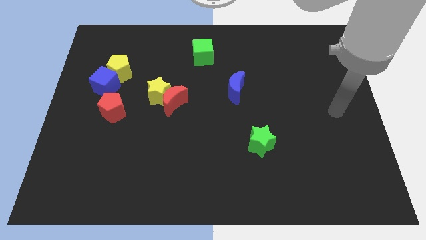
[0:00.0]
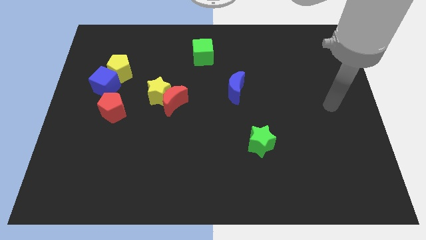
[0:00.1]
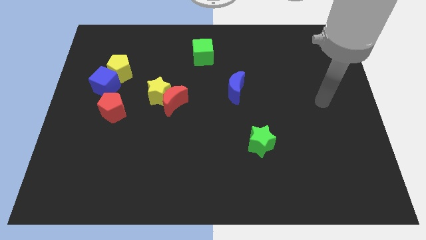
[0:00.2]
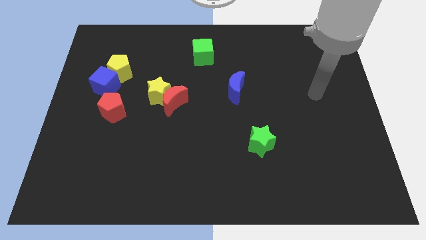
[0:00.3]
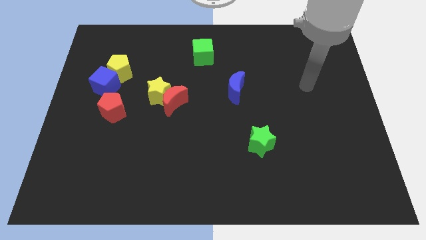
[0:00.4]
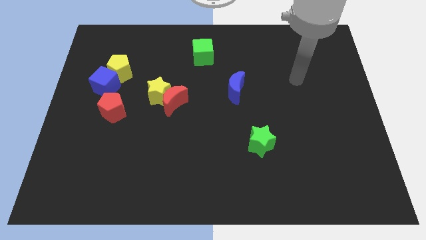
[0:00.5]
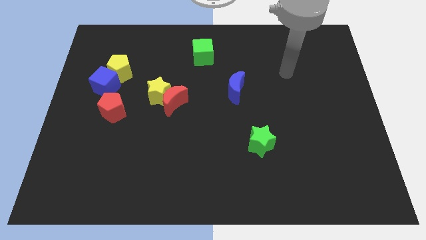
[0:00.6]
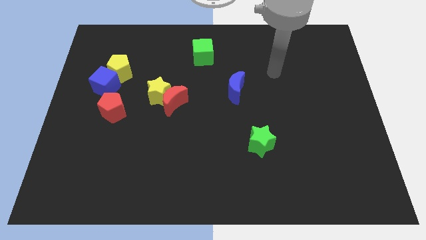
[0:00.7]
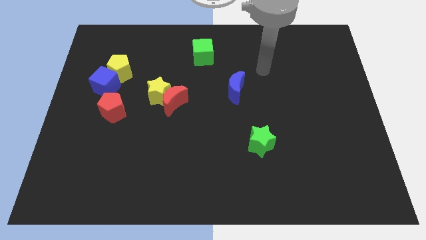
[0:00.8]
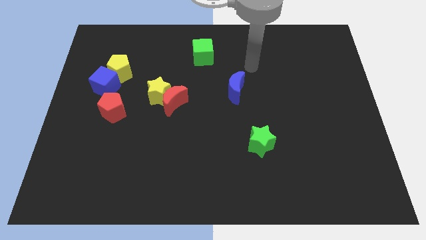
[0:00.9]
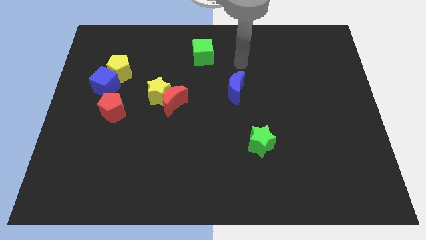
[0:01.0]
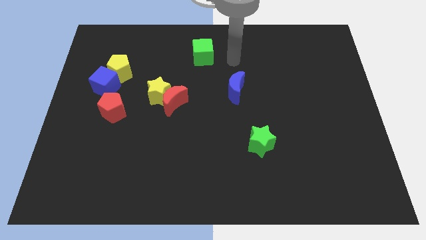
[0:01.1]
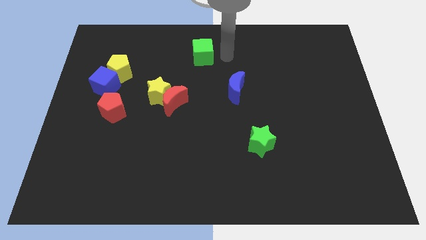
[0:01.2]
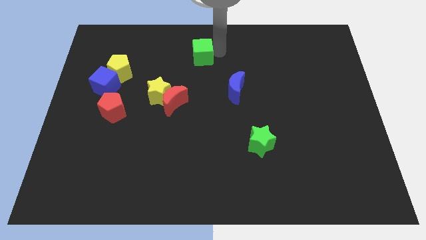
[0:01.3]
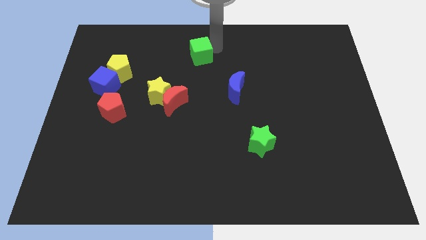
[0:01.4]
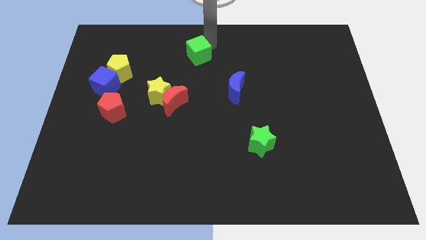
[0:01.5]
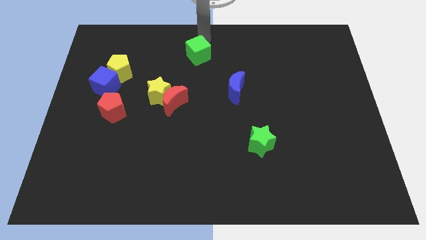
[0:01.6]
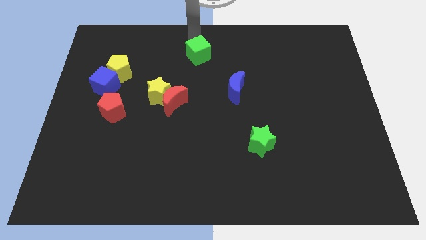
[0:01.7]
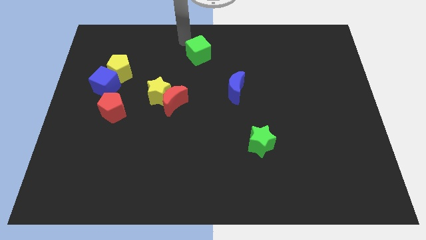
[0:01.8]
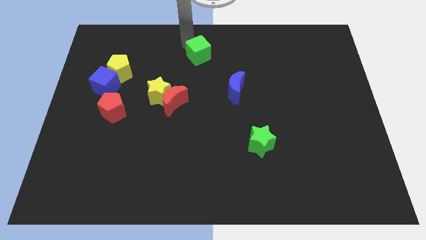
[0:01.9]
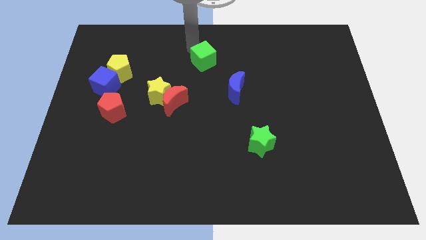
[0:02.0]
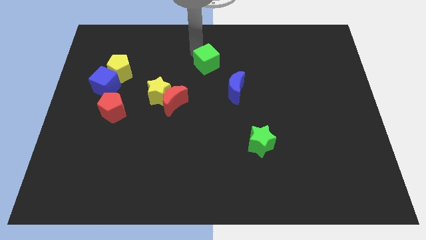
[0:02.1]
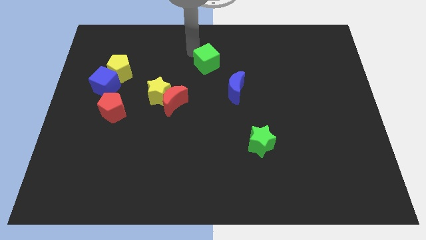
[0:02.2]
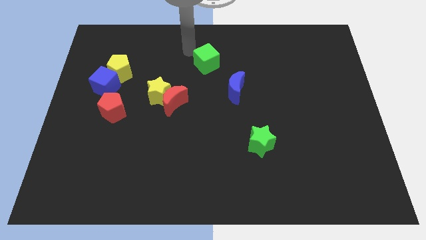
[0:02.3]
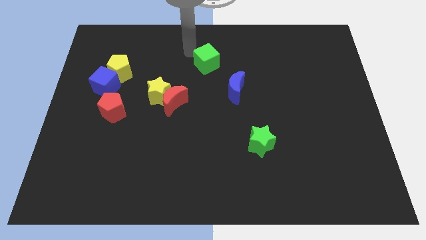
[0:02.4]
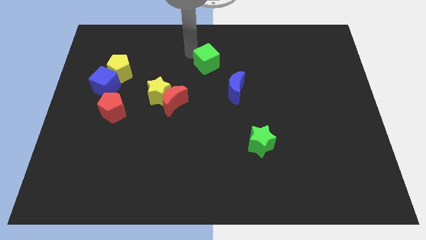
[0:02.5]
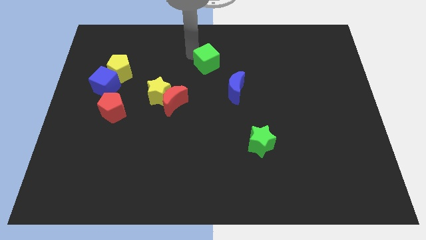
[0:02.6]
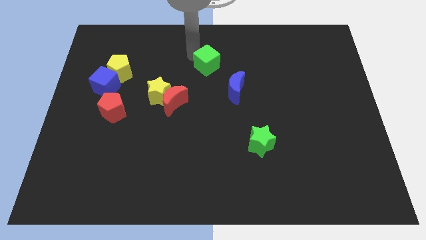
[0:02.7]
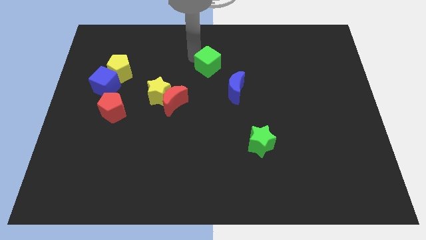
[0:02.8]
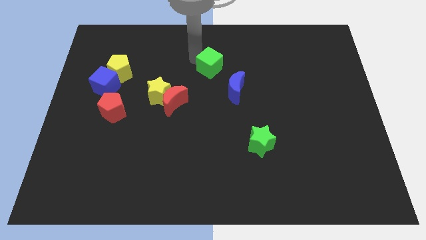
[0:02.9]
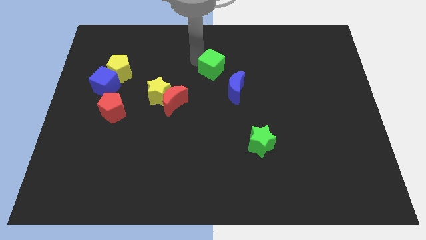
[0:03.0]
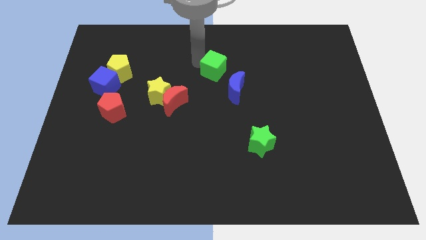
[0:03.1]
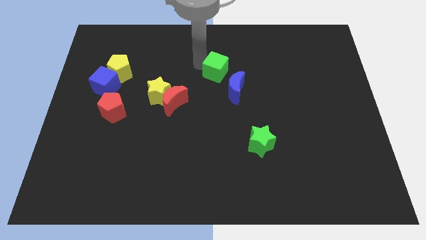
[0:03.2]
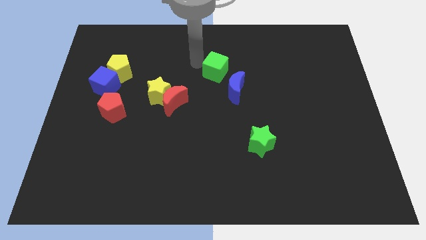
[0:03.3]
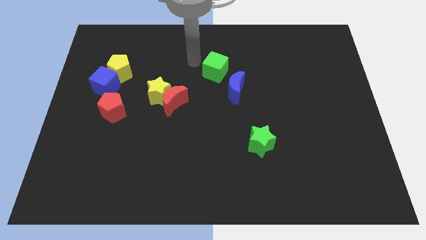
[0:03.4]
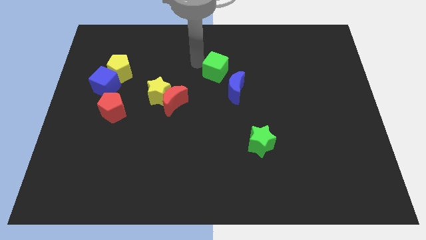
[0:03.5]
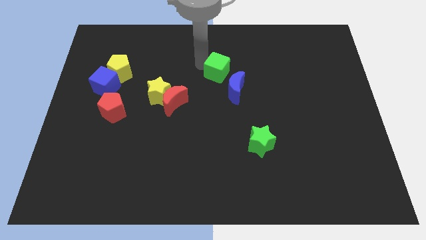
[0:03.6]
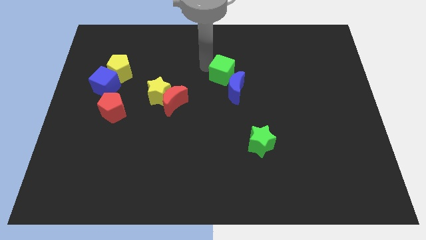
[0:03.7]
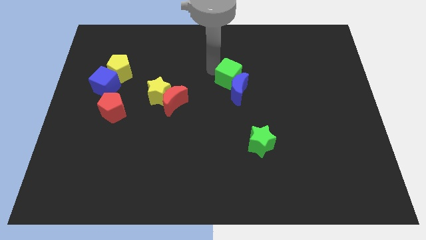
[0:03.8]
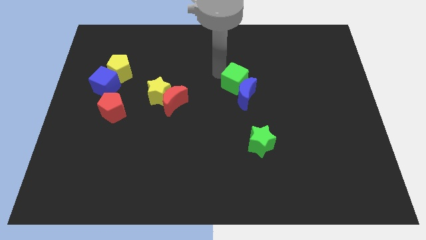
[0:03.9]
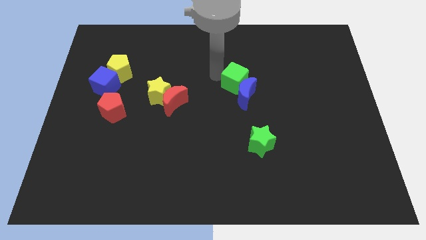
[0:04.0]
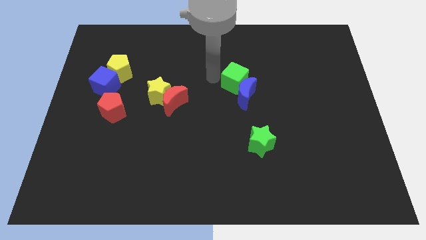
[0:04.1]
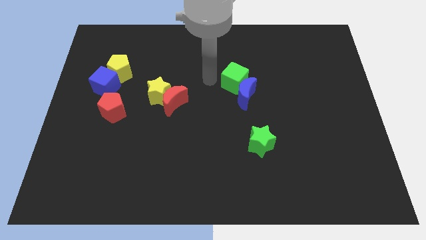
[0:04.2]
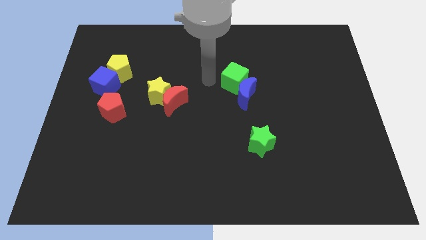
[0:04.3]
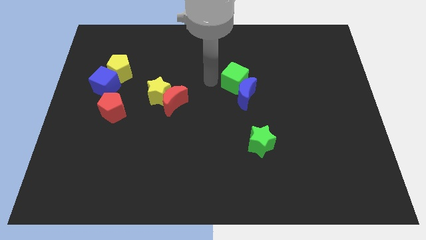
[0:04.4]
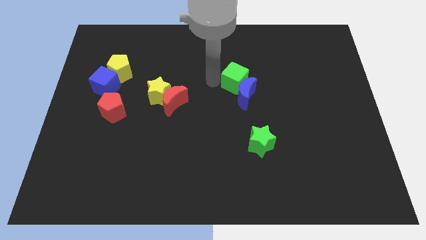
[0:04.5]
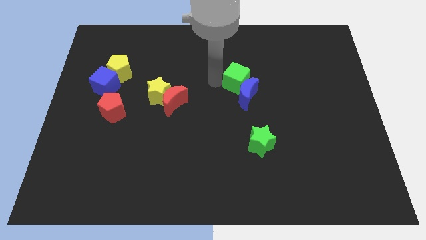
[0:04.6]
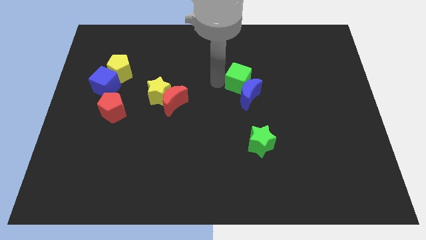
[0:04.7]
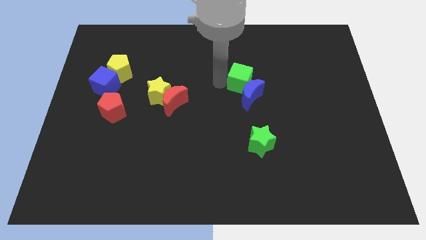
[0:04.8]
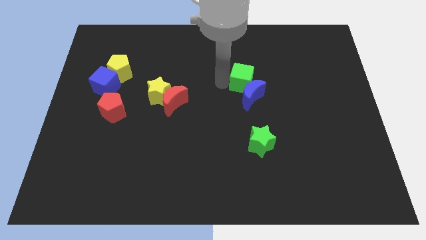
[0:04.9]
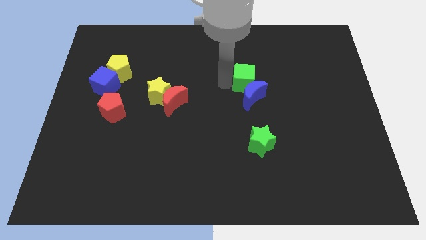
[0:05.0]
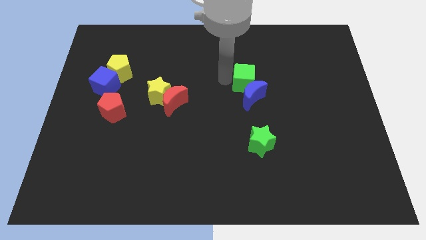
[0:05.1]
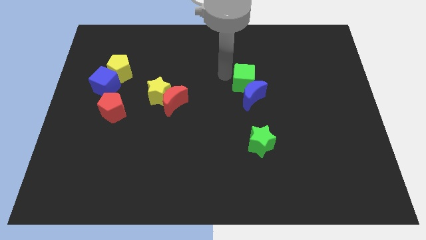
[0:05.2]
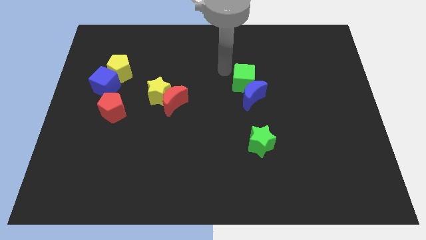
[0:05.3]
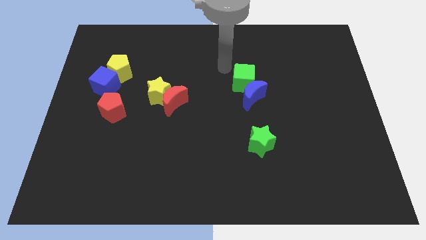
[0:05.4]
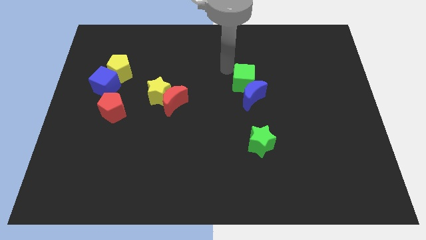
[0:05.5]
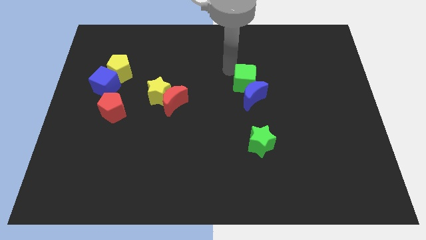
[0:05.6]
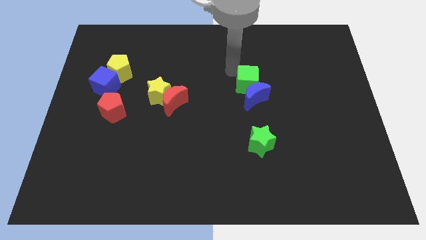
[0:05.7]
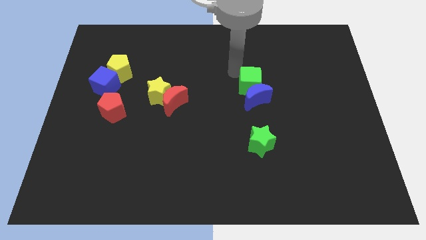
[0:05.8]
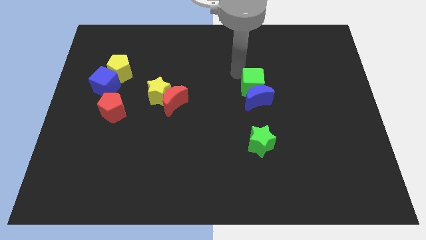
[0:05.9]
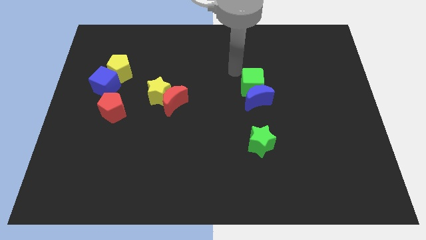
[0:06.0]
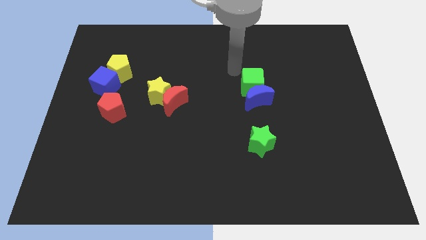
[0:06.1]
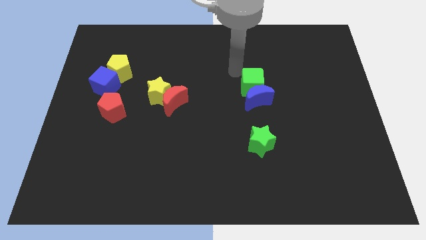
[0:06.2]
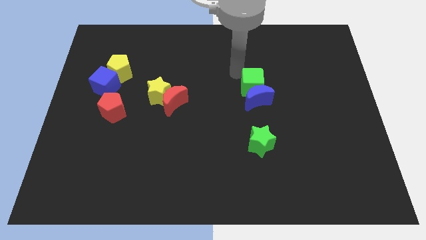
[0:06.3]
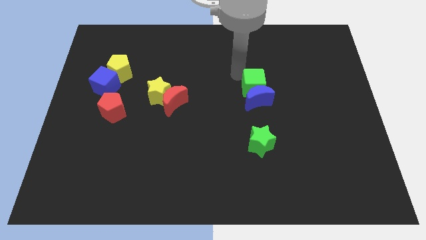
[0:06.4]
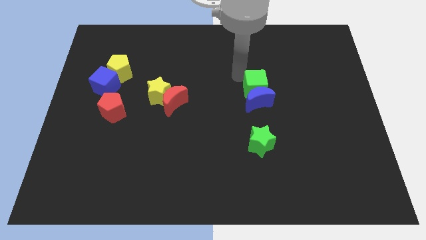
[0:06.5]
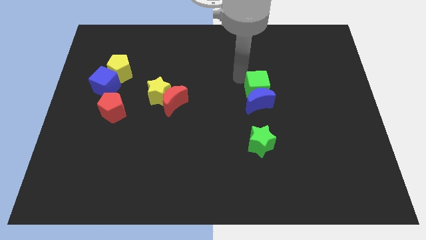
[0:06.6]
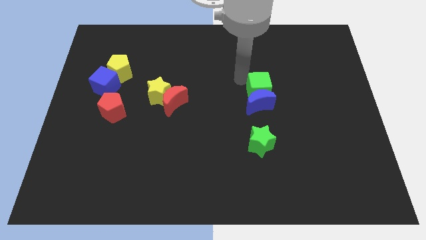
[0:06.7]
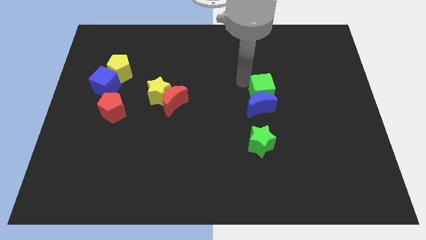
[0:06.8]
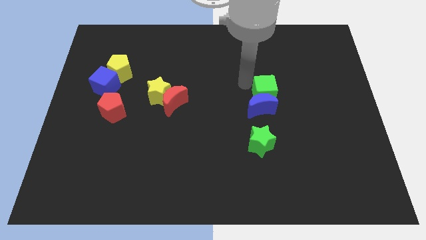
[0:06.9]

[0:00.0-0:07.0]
push the green cube downwards and right diagonally

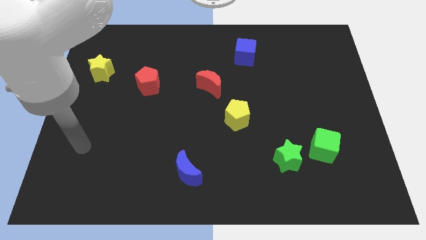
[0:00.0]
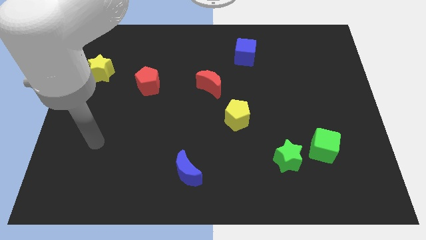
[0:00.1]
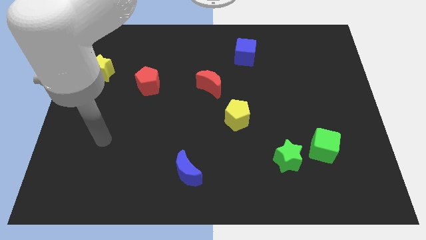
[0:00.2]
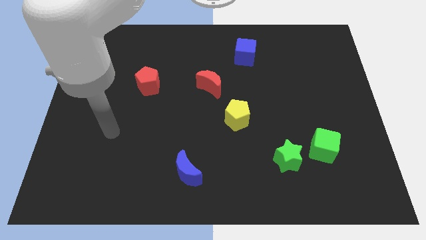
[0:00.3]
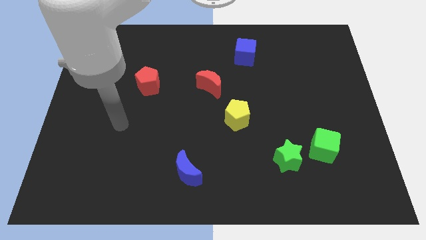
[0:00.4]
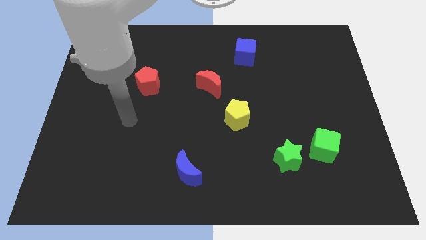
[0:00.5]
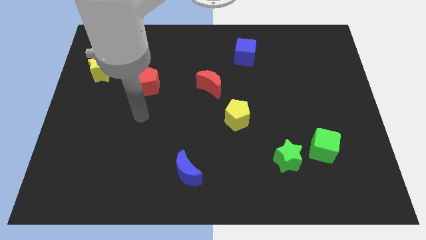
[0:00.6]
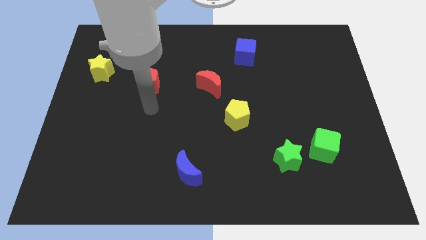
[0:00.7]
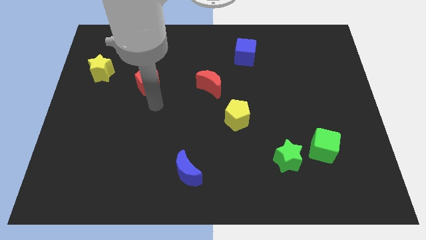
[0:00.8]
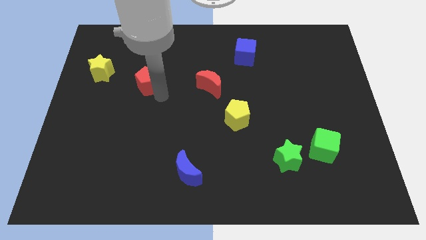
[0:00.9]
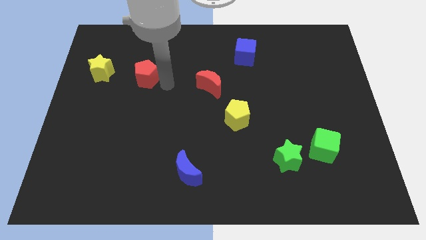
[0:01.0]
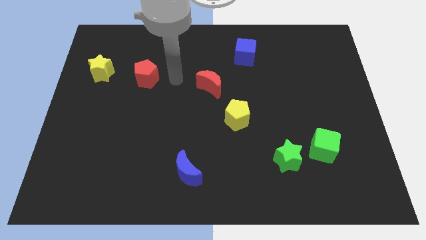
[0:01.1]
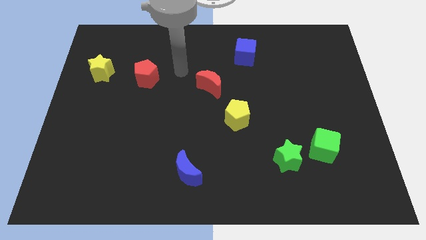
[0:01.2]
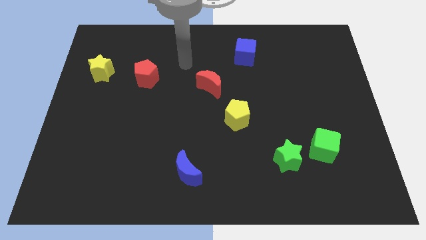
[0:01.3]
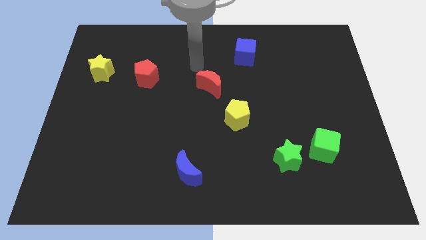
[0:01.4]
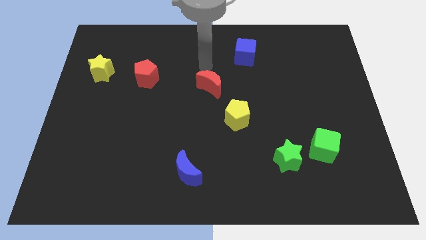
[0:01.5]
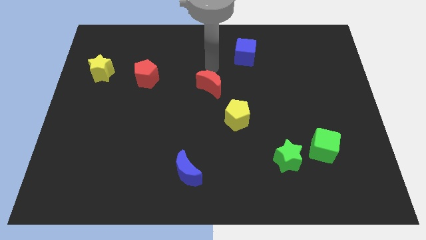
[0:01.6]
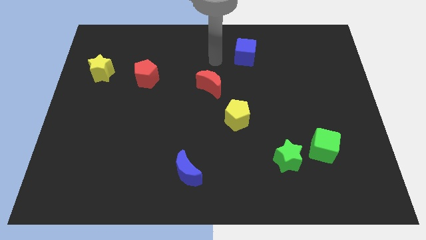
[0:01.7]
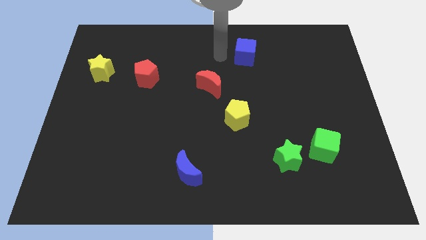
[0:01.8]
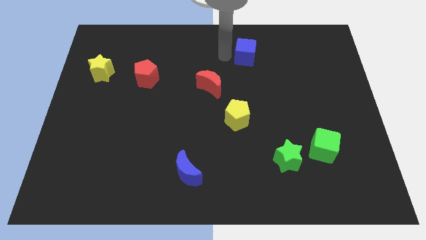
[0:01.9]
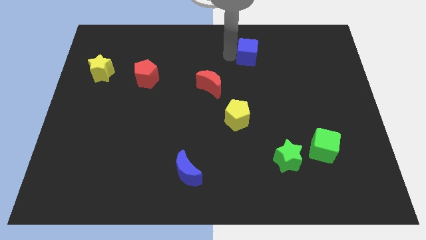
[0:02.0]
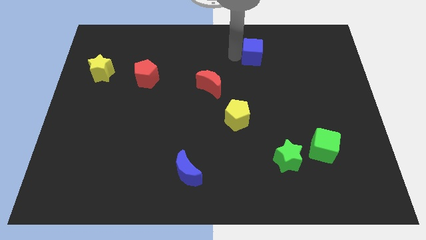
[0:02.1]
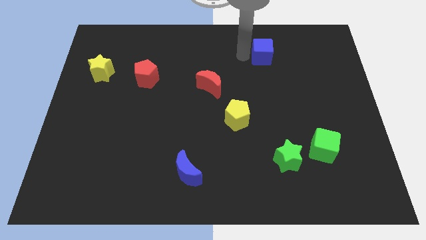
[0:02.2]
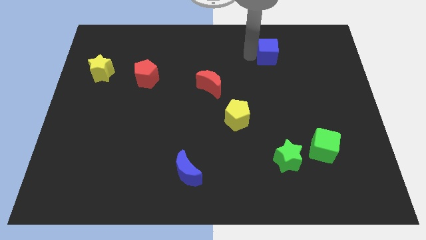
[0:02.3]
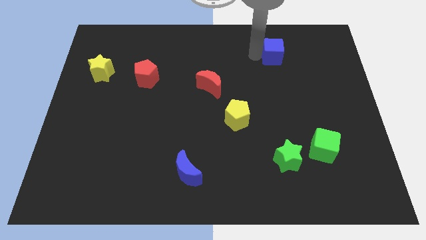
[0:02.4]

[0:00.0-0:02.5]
move the blue cube right a bit
